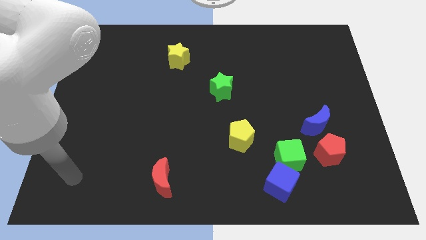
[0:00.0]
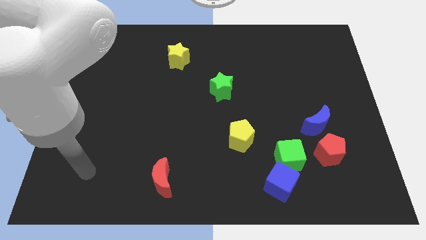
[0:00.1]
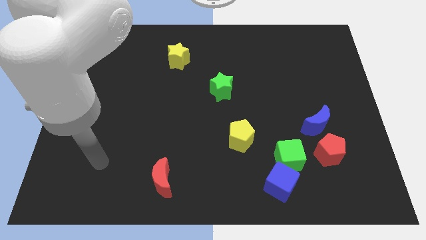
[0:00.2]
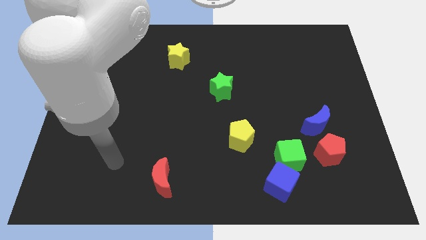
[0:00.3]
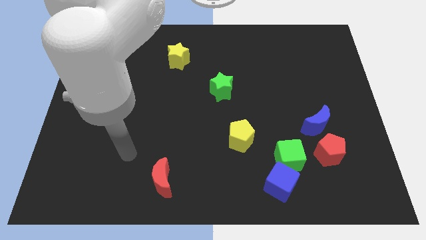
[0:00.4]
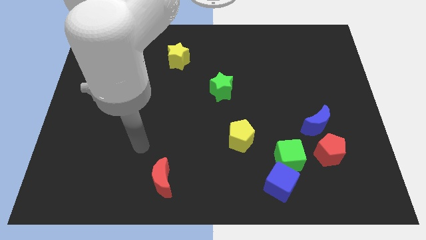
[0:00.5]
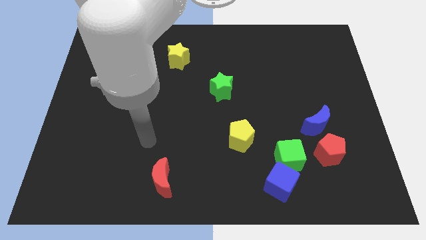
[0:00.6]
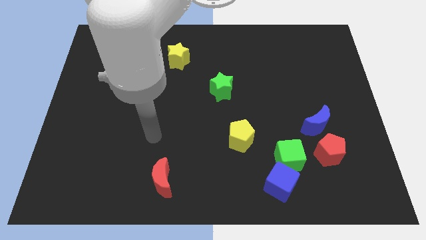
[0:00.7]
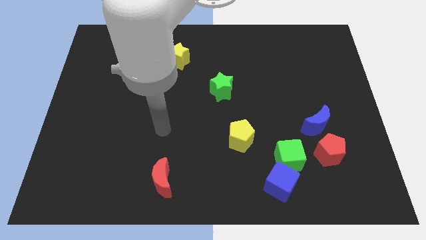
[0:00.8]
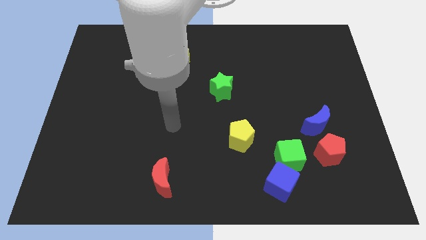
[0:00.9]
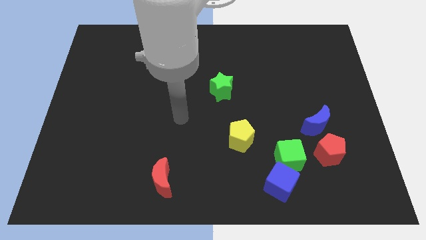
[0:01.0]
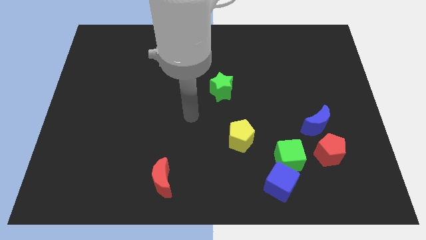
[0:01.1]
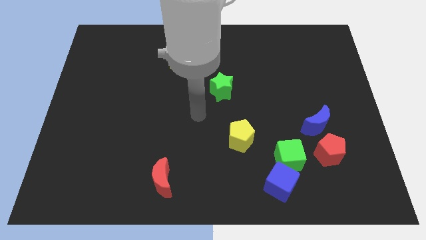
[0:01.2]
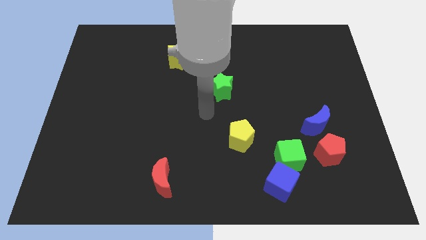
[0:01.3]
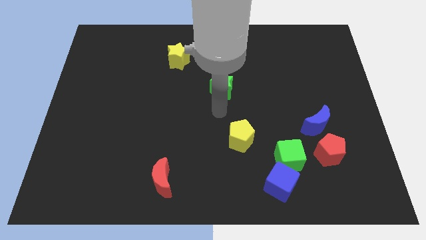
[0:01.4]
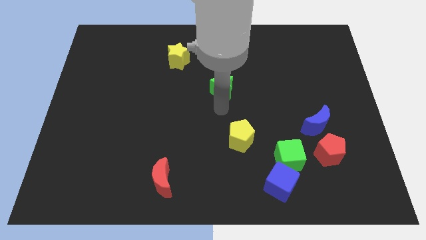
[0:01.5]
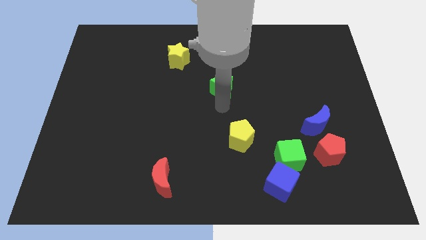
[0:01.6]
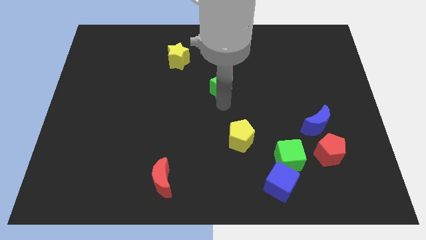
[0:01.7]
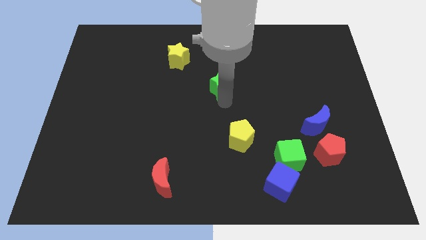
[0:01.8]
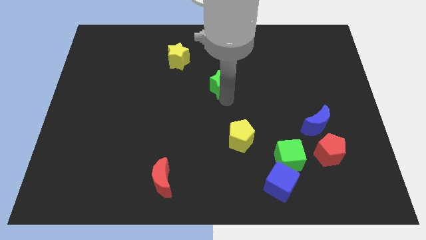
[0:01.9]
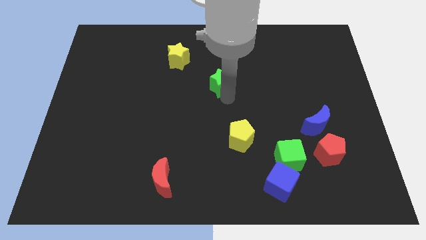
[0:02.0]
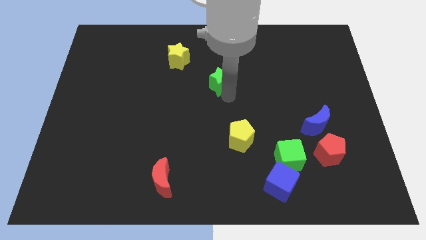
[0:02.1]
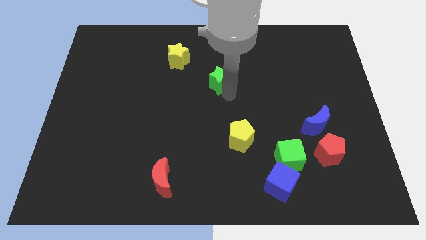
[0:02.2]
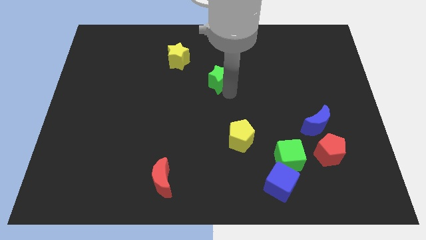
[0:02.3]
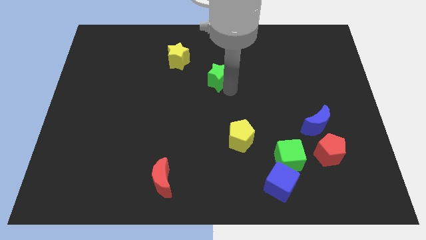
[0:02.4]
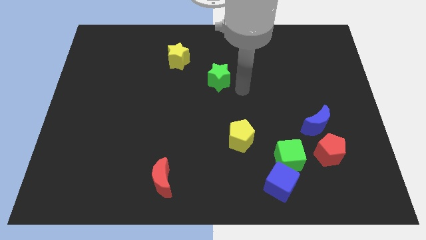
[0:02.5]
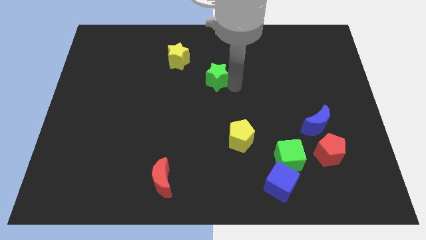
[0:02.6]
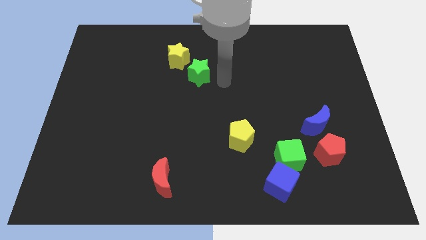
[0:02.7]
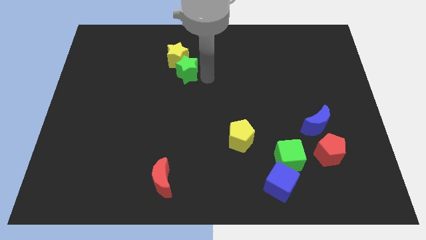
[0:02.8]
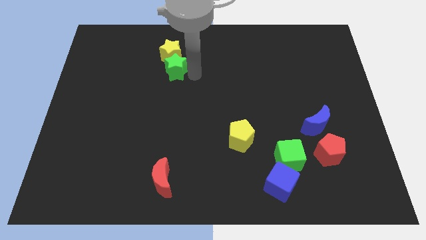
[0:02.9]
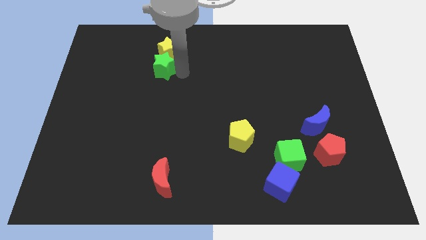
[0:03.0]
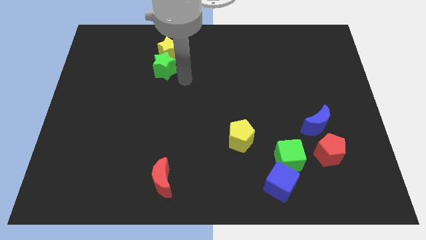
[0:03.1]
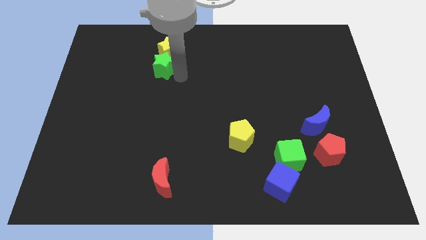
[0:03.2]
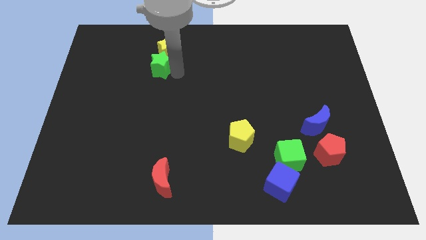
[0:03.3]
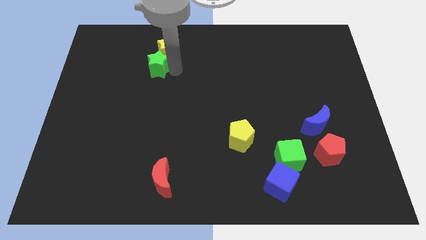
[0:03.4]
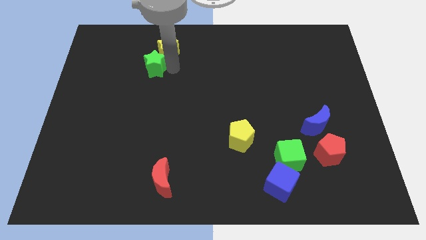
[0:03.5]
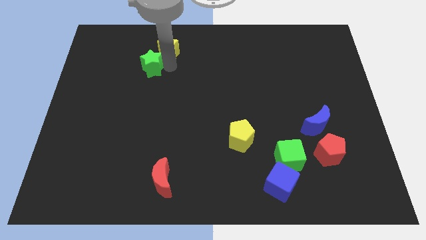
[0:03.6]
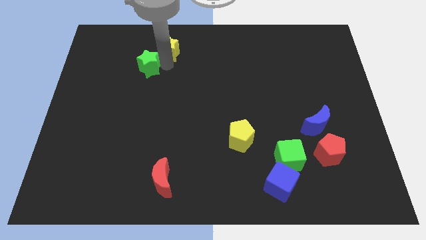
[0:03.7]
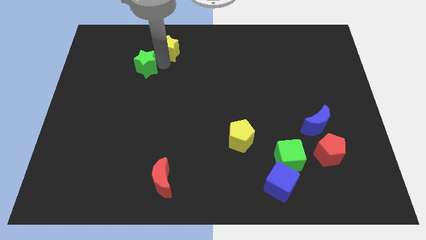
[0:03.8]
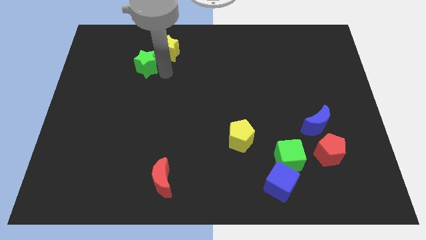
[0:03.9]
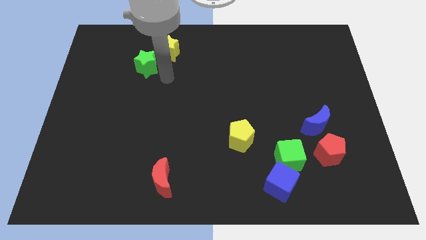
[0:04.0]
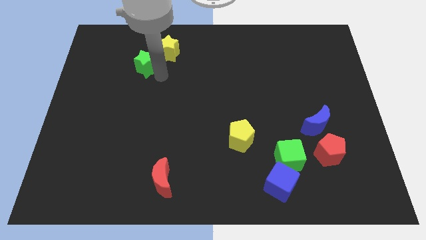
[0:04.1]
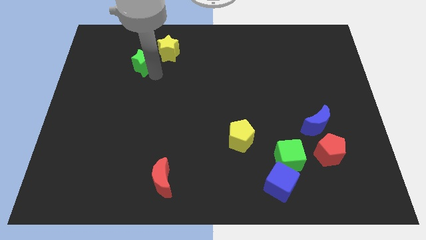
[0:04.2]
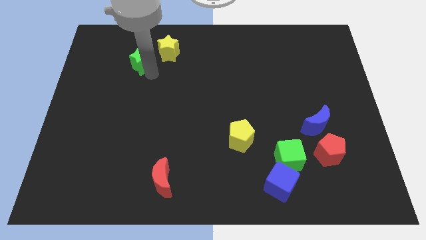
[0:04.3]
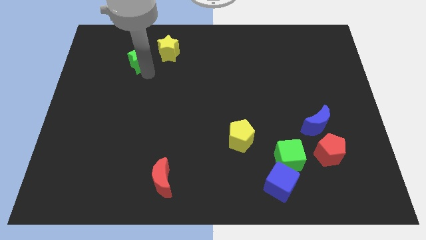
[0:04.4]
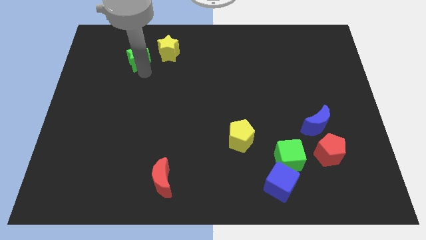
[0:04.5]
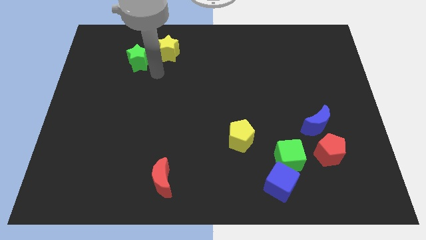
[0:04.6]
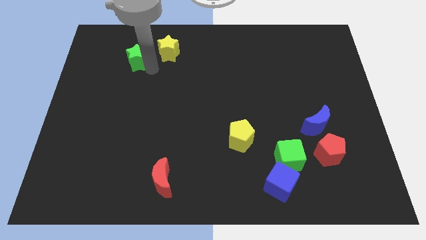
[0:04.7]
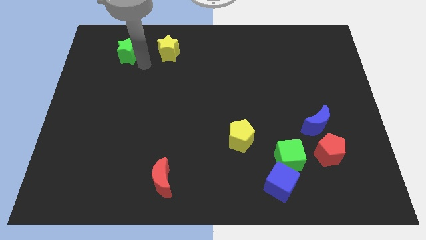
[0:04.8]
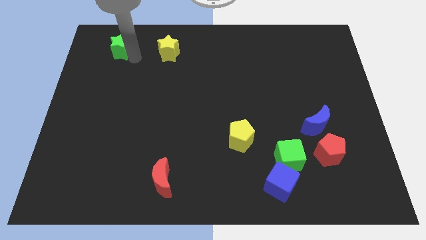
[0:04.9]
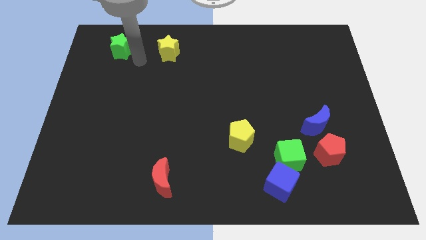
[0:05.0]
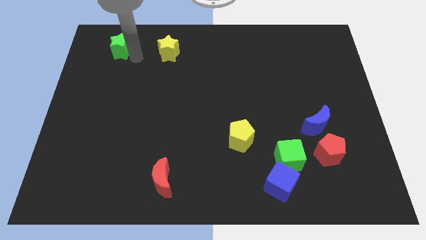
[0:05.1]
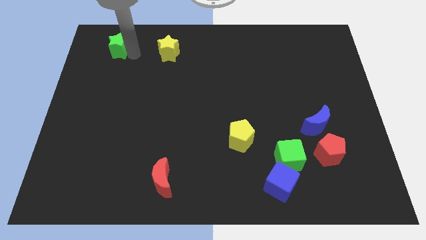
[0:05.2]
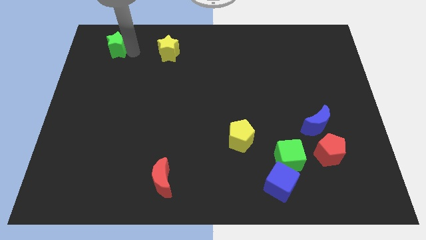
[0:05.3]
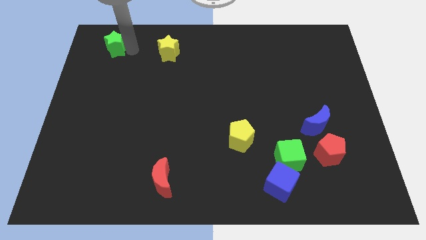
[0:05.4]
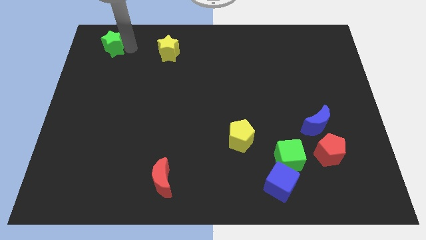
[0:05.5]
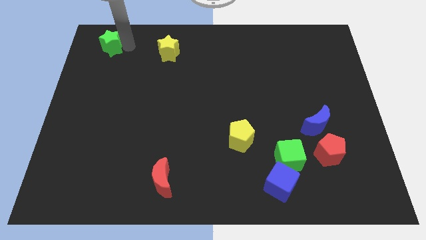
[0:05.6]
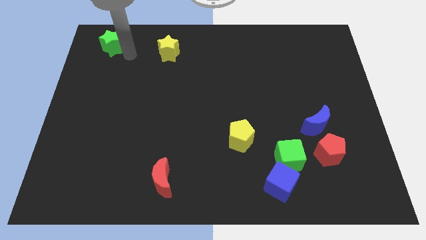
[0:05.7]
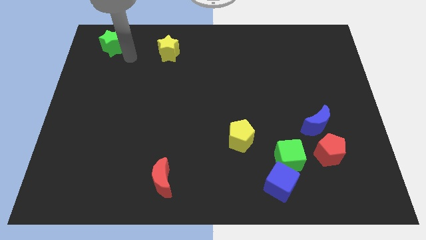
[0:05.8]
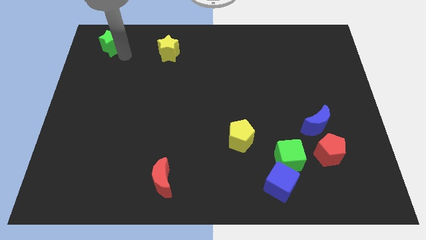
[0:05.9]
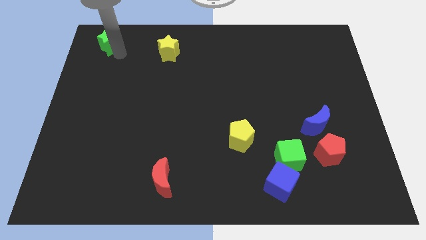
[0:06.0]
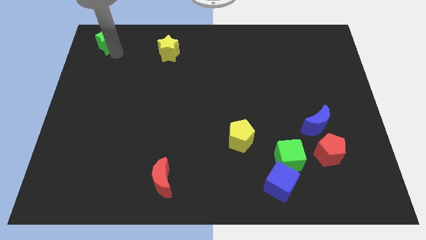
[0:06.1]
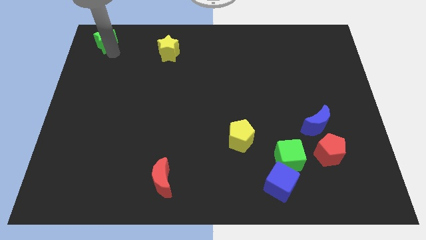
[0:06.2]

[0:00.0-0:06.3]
push the green star to the top left corner
